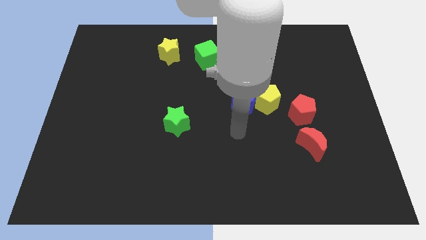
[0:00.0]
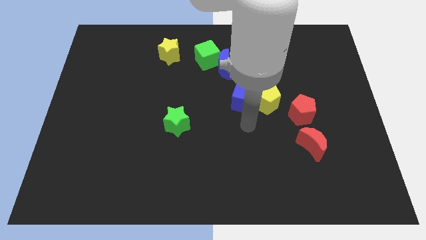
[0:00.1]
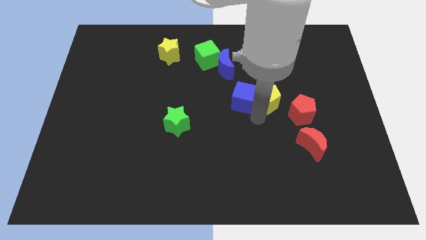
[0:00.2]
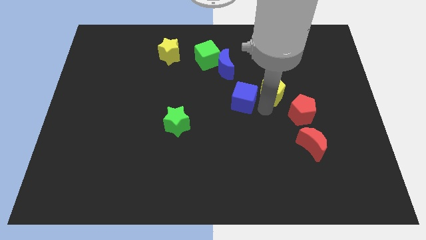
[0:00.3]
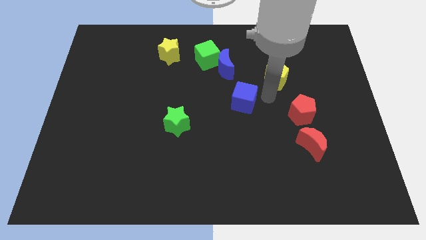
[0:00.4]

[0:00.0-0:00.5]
move the blue cube away from the yellow pentagon

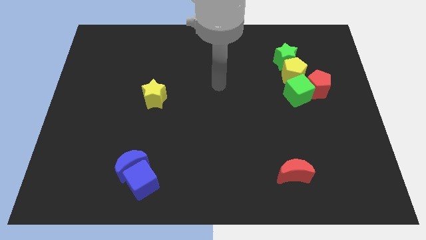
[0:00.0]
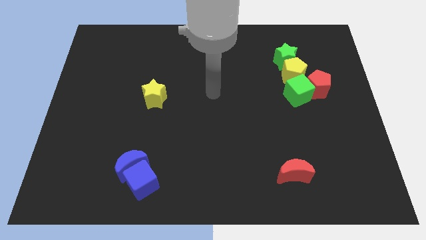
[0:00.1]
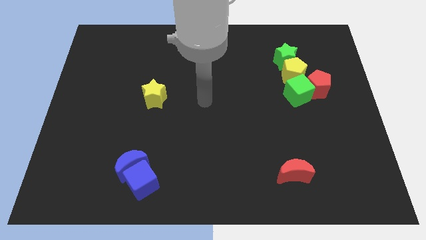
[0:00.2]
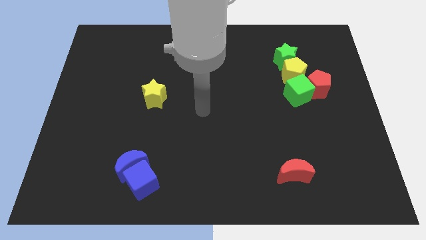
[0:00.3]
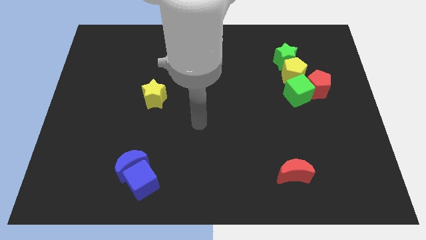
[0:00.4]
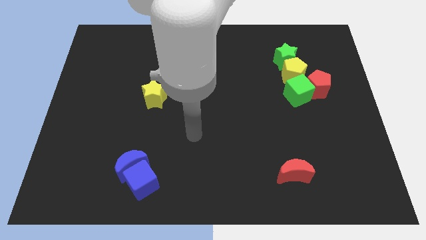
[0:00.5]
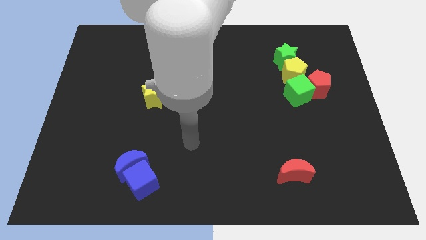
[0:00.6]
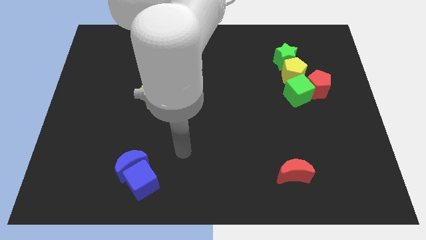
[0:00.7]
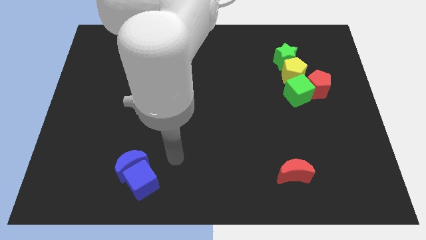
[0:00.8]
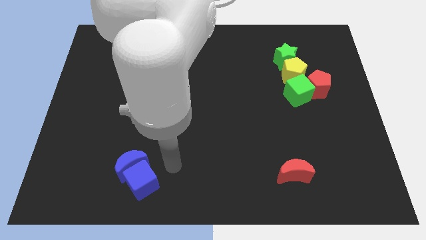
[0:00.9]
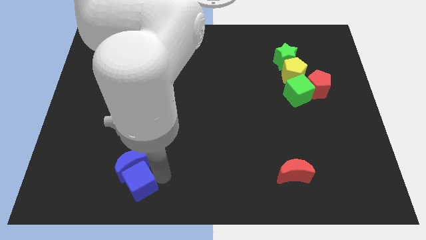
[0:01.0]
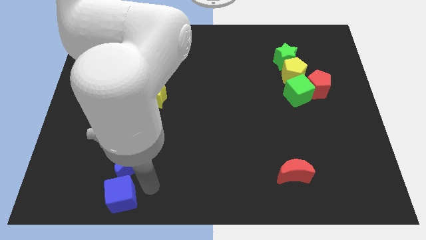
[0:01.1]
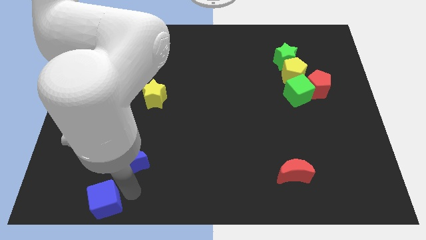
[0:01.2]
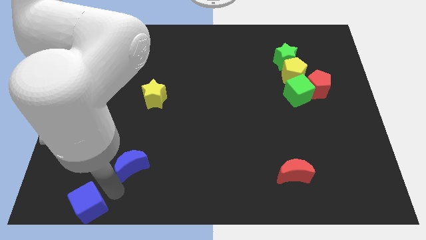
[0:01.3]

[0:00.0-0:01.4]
separate the blue moon from the blue cube

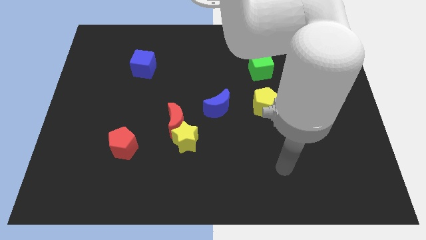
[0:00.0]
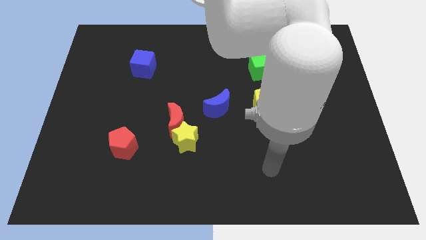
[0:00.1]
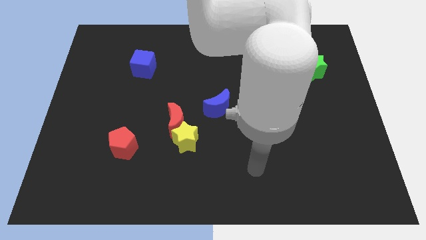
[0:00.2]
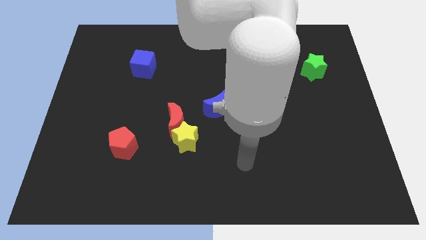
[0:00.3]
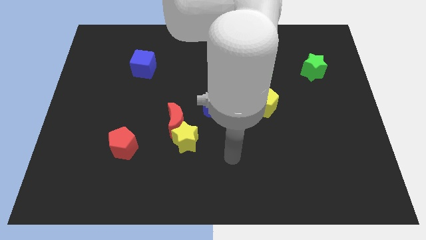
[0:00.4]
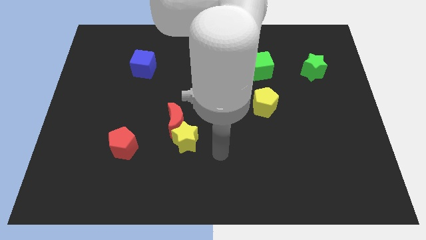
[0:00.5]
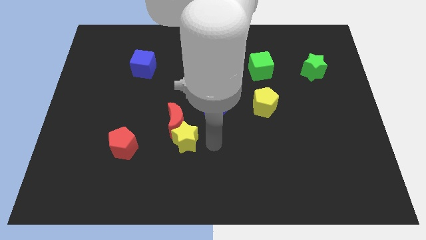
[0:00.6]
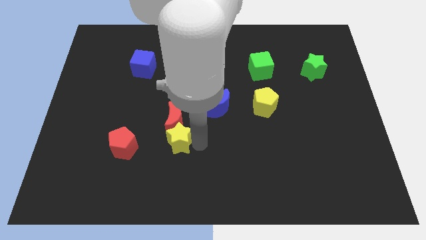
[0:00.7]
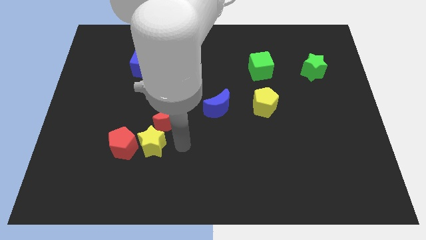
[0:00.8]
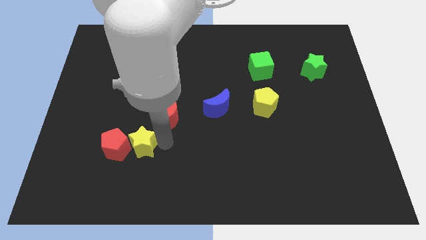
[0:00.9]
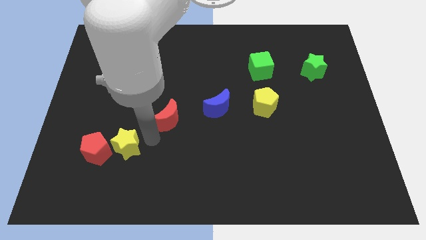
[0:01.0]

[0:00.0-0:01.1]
separate the red moon from the yellow star

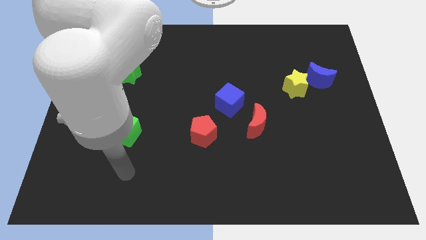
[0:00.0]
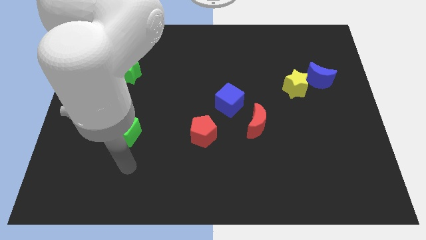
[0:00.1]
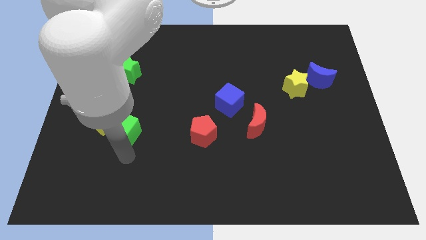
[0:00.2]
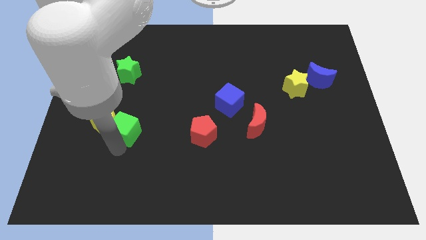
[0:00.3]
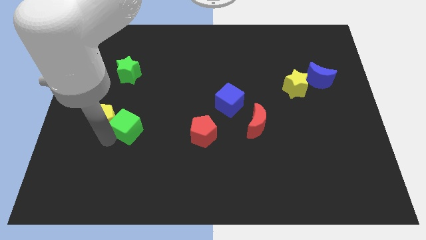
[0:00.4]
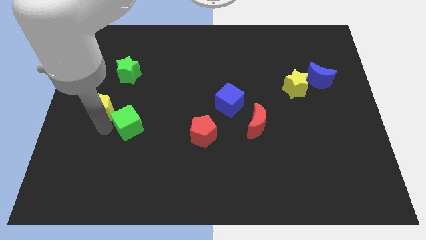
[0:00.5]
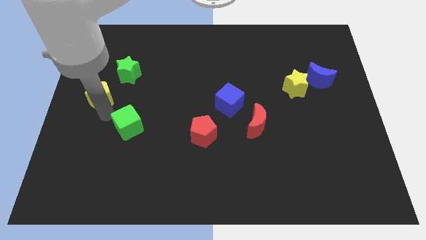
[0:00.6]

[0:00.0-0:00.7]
move the green cube away from the yellow pentagon

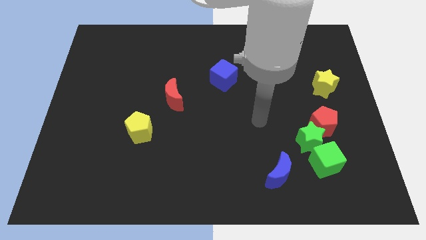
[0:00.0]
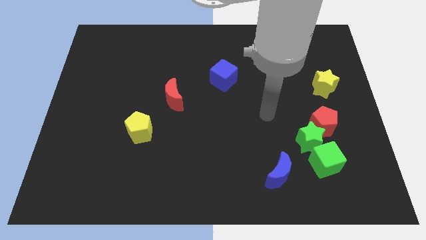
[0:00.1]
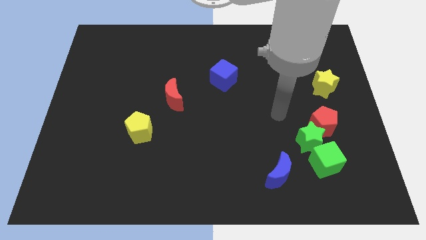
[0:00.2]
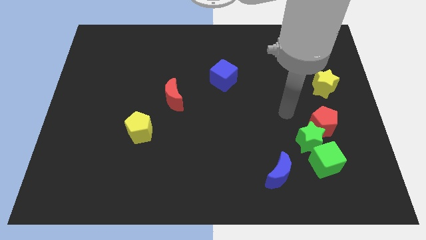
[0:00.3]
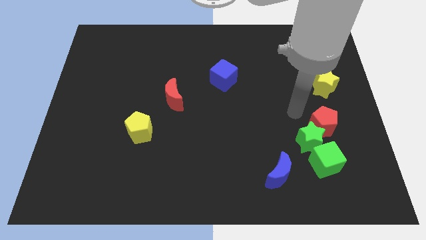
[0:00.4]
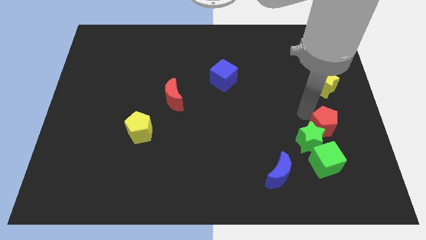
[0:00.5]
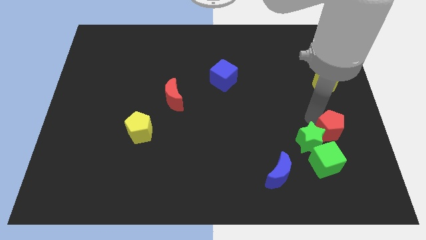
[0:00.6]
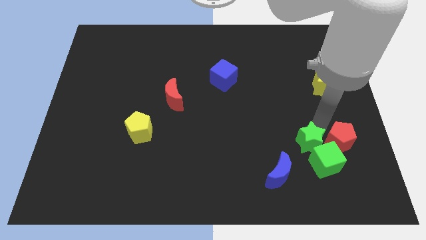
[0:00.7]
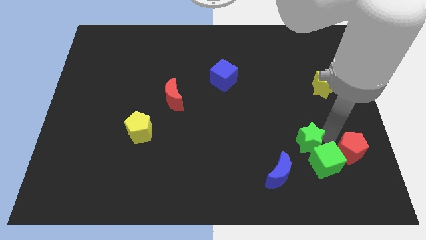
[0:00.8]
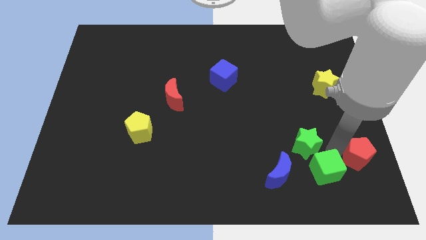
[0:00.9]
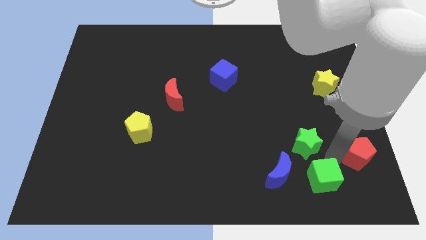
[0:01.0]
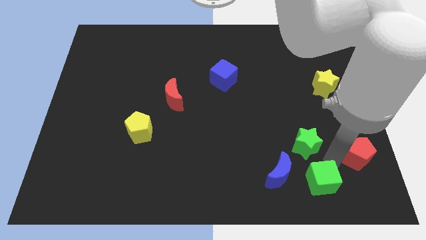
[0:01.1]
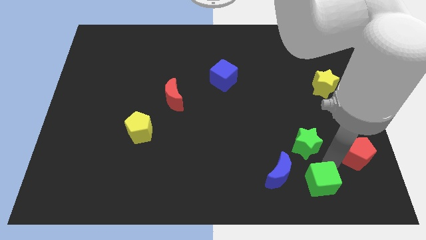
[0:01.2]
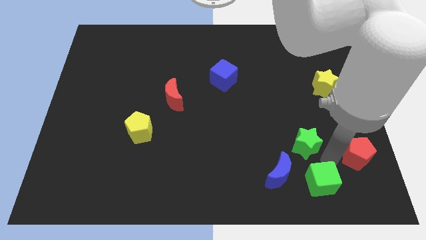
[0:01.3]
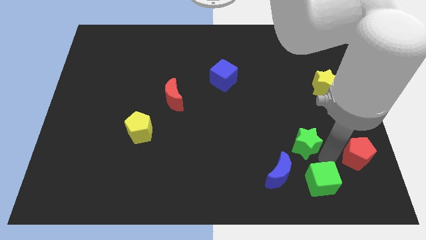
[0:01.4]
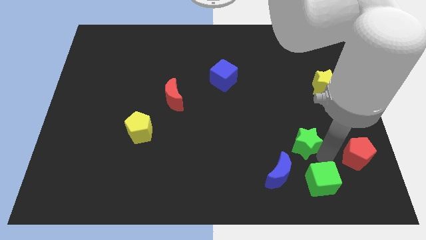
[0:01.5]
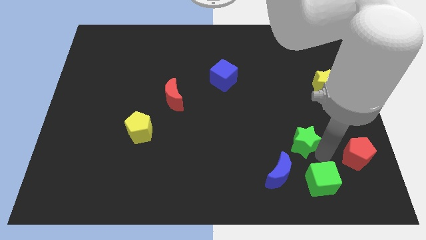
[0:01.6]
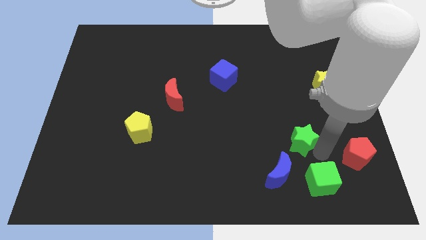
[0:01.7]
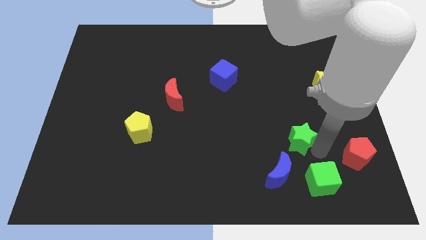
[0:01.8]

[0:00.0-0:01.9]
move the green star away from the red pentagon and green cube

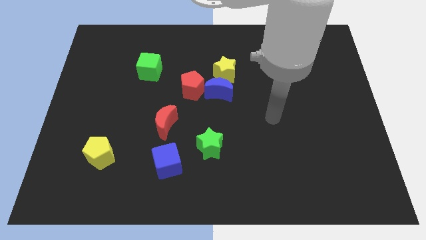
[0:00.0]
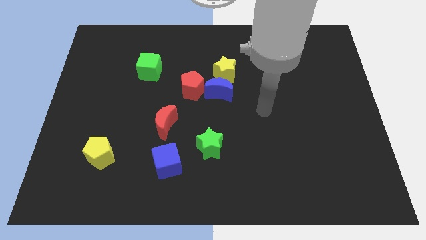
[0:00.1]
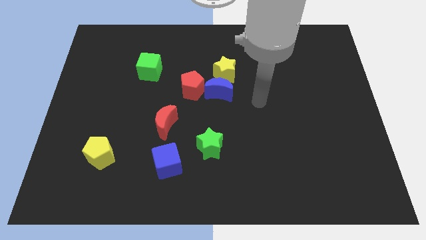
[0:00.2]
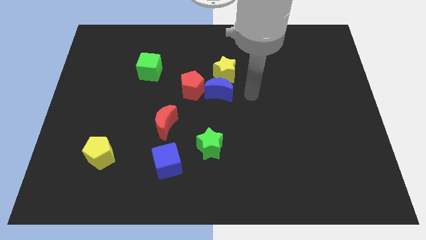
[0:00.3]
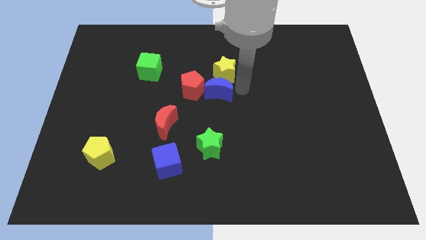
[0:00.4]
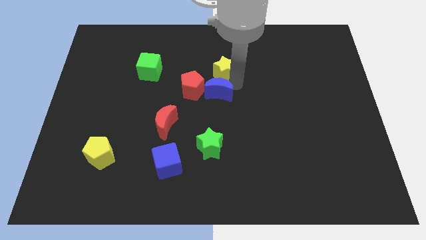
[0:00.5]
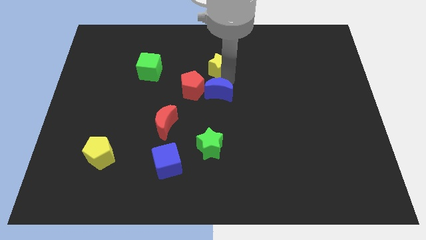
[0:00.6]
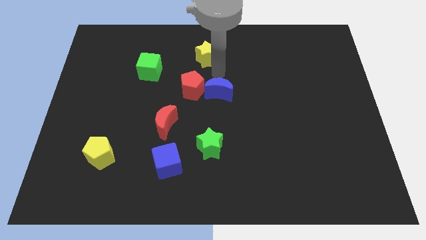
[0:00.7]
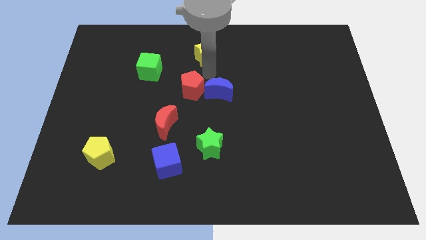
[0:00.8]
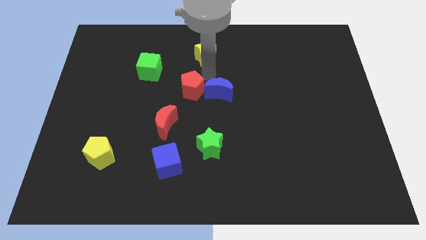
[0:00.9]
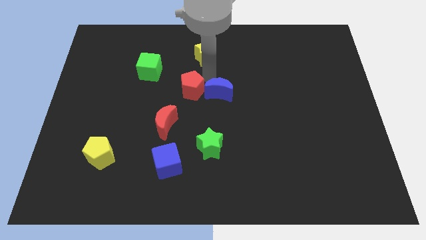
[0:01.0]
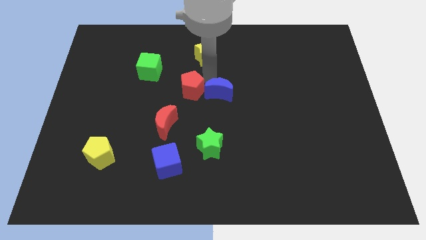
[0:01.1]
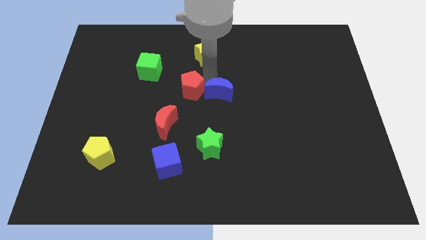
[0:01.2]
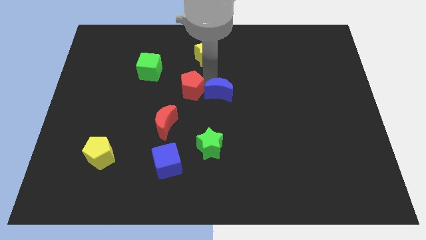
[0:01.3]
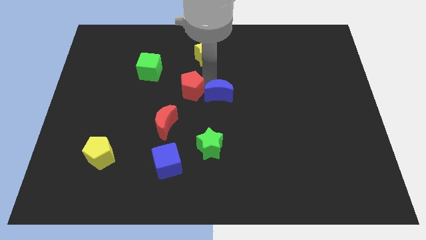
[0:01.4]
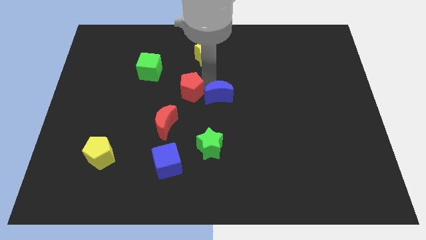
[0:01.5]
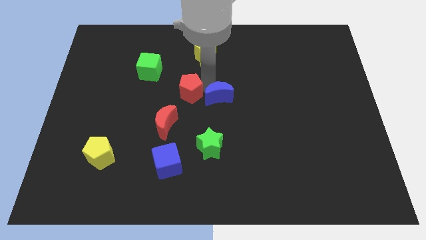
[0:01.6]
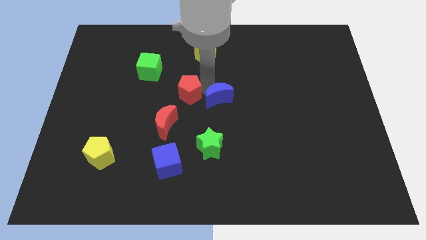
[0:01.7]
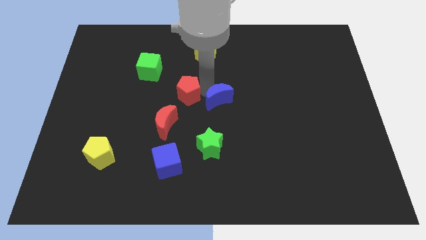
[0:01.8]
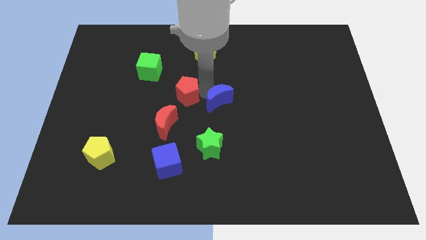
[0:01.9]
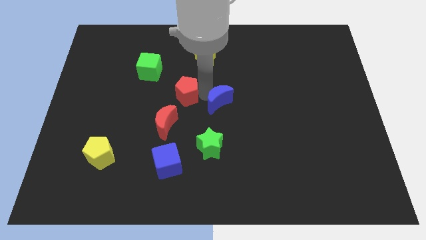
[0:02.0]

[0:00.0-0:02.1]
separate the blue moon from the yellow star and red pentagon

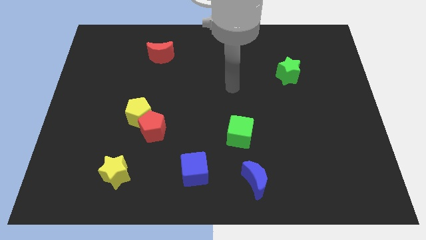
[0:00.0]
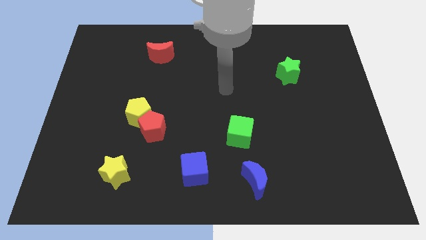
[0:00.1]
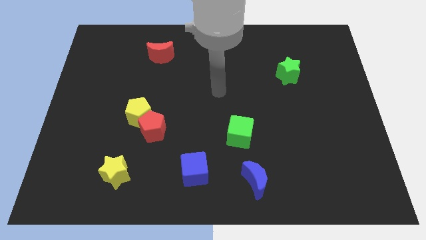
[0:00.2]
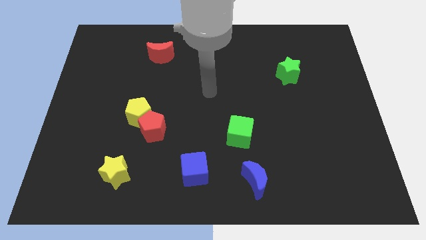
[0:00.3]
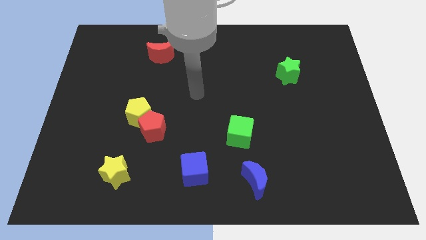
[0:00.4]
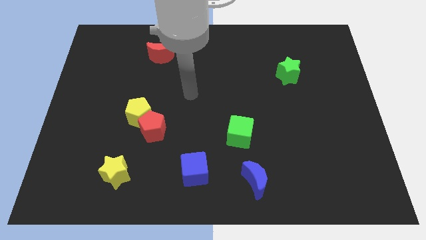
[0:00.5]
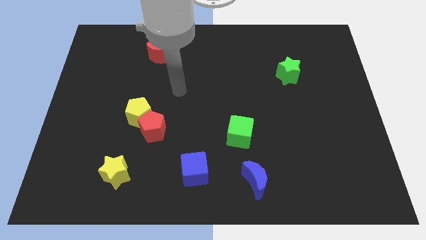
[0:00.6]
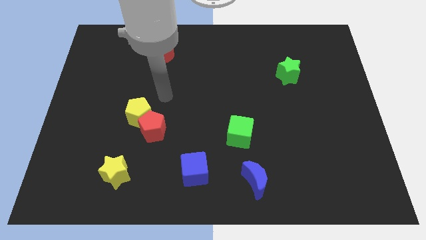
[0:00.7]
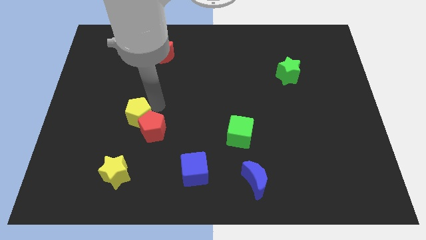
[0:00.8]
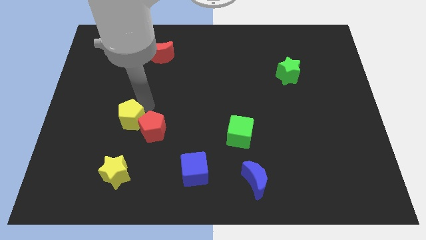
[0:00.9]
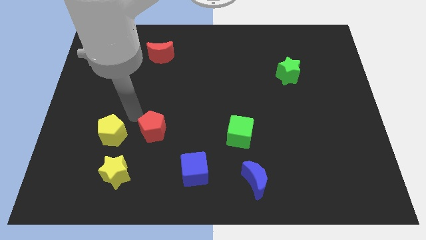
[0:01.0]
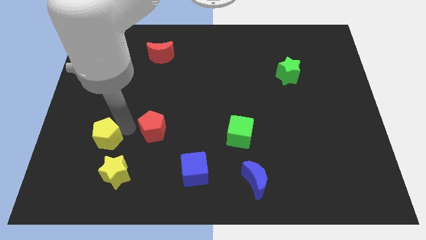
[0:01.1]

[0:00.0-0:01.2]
separate the red pentagon from the yellow pentagon

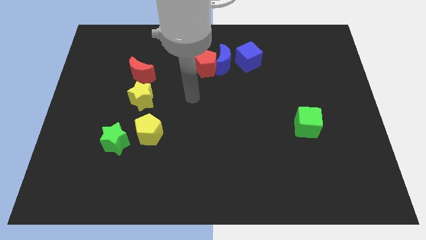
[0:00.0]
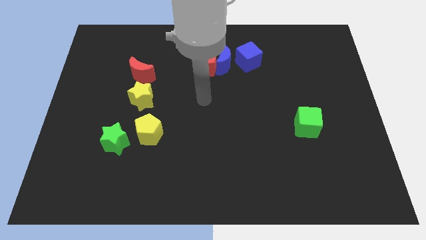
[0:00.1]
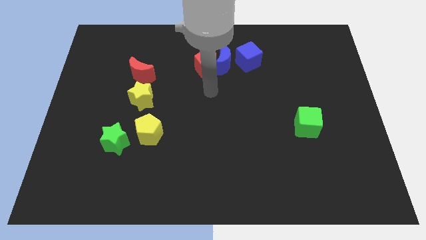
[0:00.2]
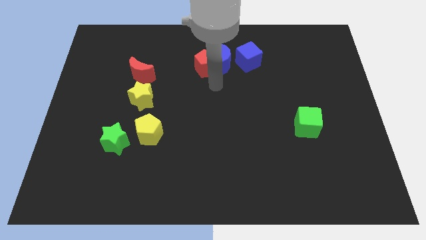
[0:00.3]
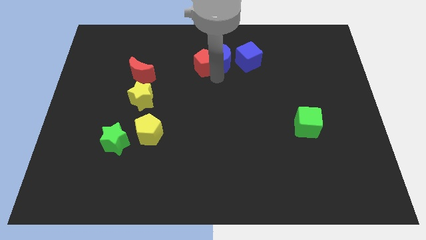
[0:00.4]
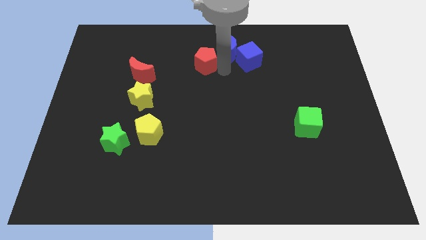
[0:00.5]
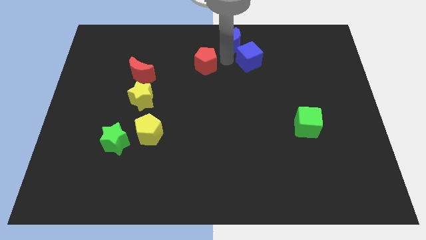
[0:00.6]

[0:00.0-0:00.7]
separate the red pentagon from the blue moon
